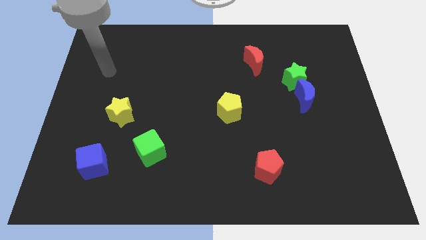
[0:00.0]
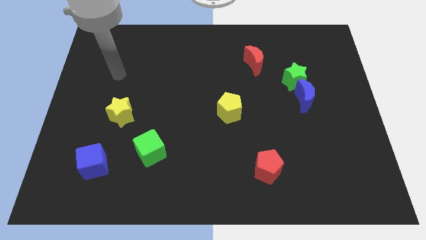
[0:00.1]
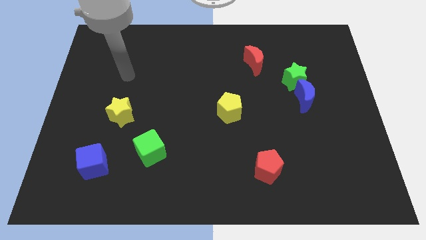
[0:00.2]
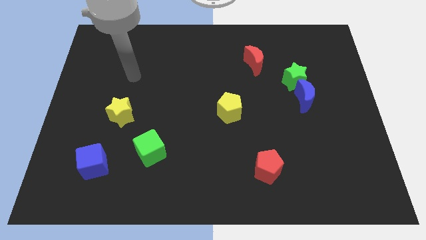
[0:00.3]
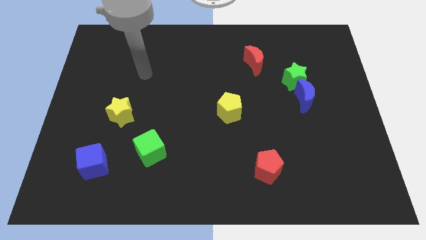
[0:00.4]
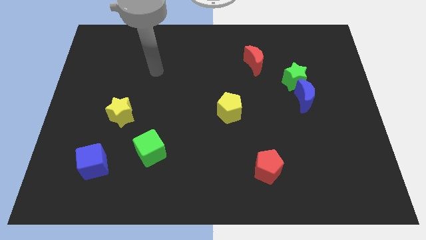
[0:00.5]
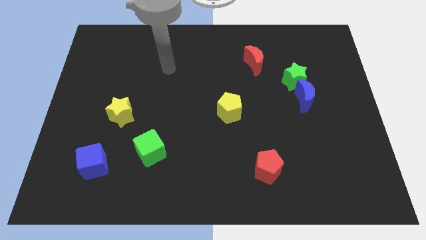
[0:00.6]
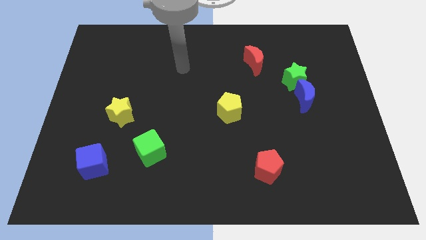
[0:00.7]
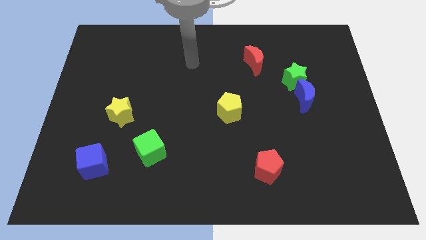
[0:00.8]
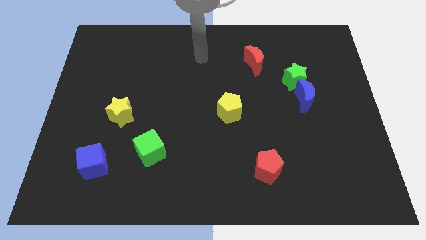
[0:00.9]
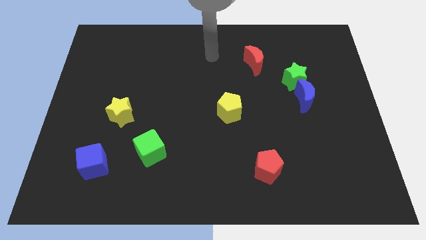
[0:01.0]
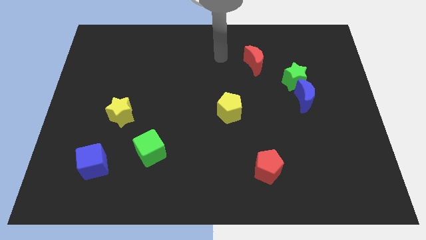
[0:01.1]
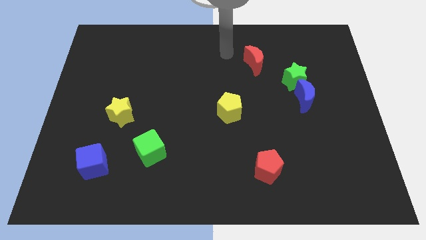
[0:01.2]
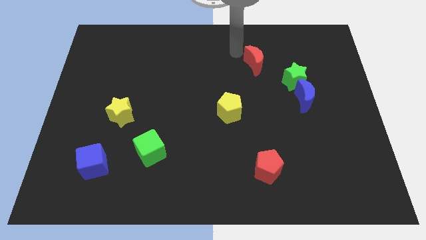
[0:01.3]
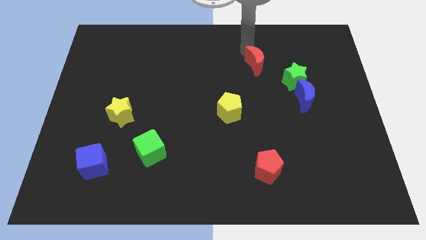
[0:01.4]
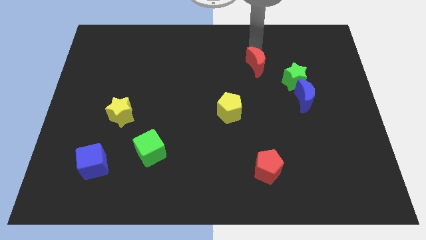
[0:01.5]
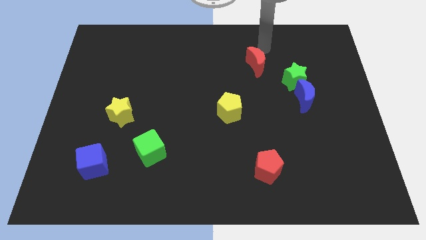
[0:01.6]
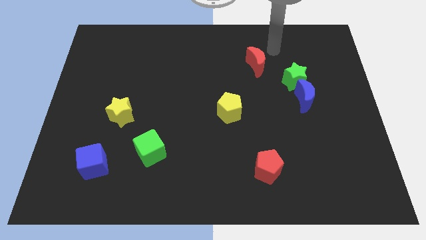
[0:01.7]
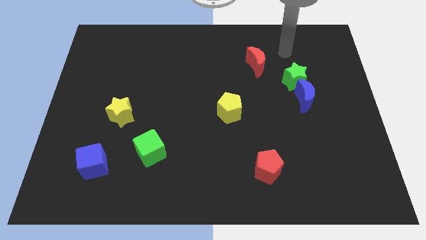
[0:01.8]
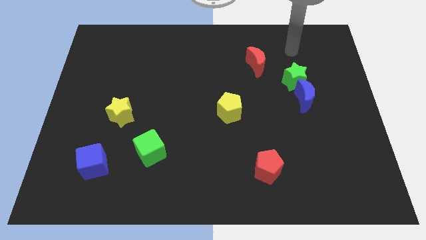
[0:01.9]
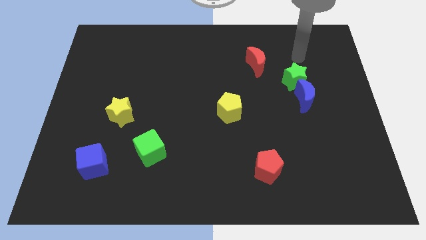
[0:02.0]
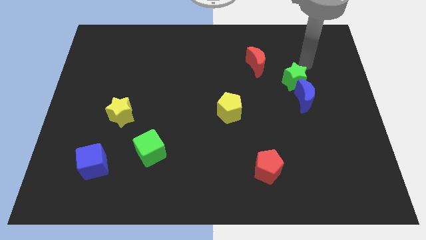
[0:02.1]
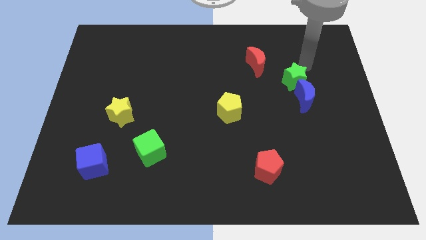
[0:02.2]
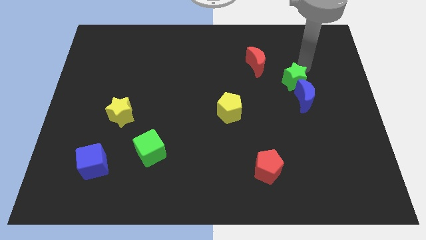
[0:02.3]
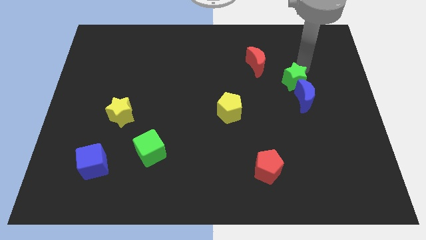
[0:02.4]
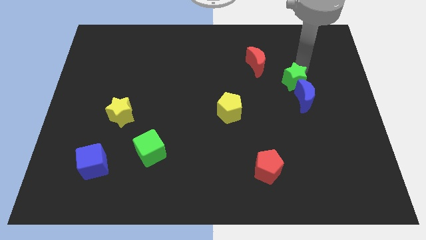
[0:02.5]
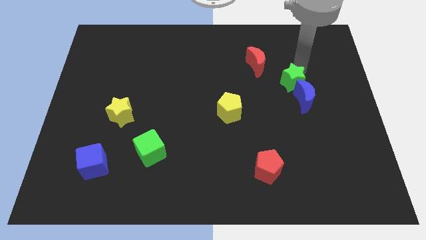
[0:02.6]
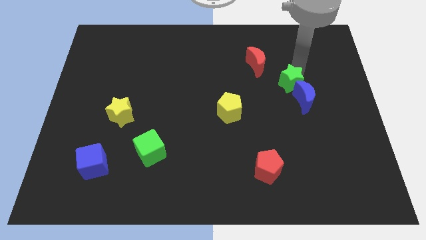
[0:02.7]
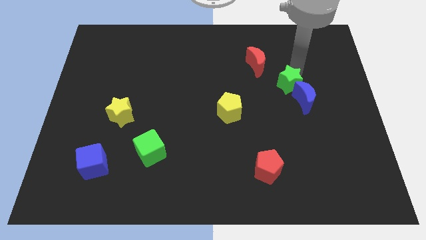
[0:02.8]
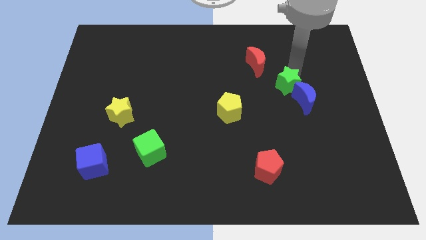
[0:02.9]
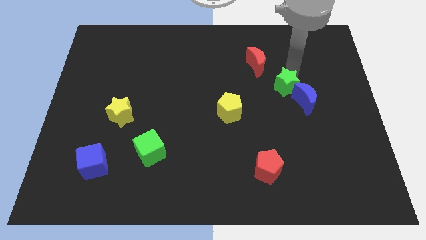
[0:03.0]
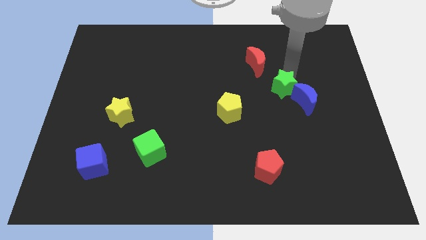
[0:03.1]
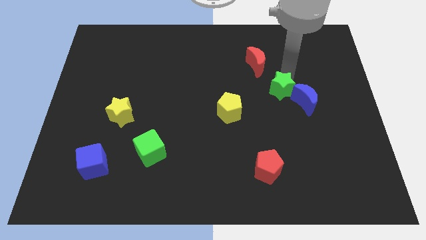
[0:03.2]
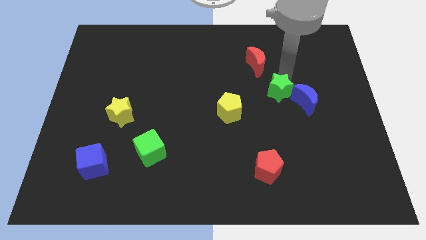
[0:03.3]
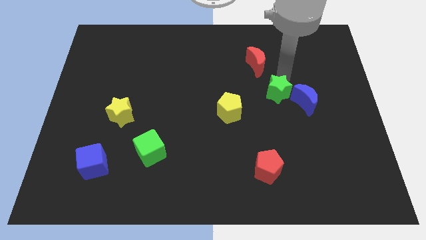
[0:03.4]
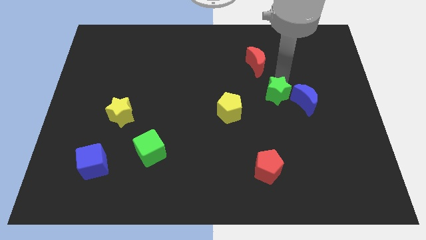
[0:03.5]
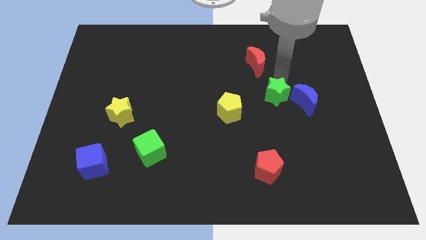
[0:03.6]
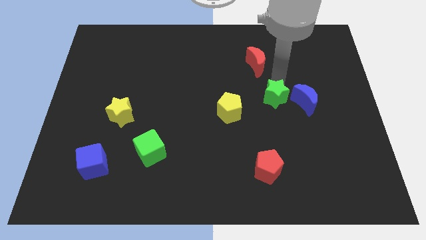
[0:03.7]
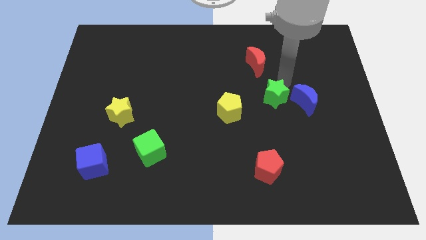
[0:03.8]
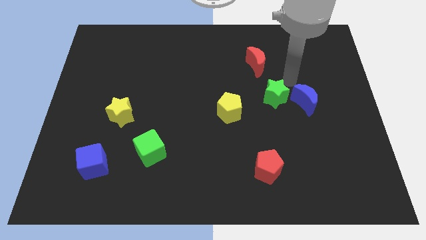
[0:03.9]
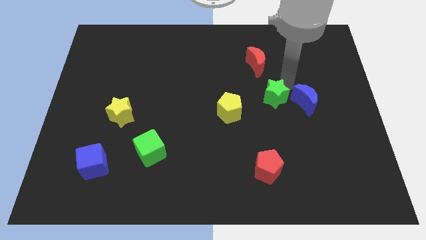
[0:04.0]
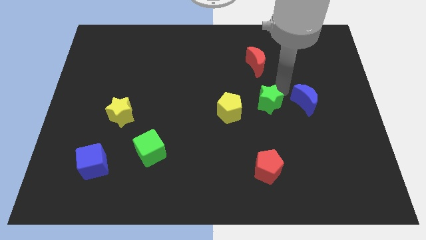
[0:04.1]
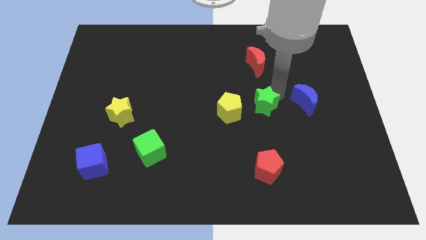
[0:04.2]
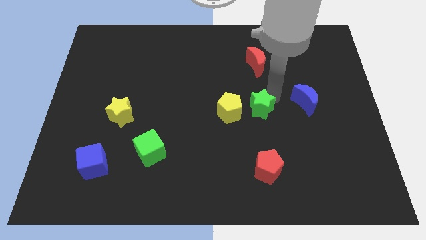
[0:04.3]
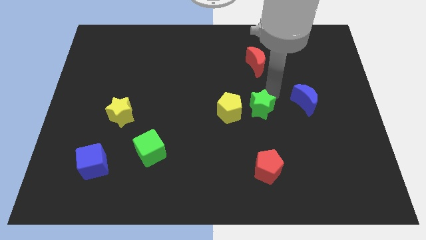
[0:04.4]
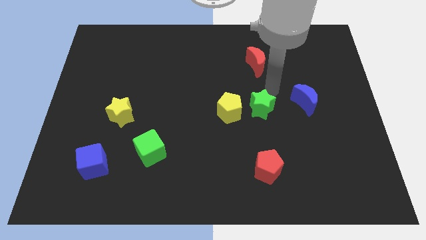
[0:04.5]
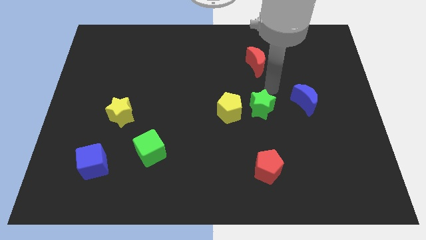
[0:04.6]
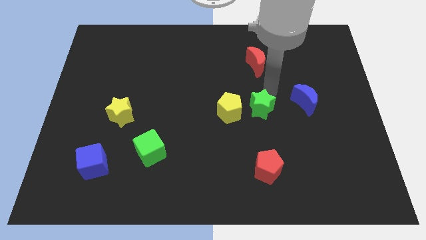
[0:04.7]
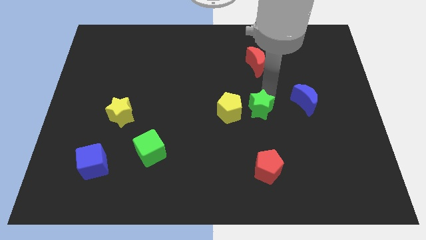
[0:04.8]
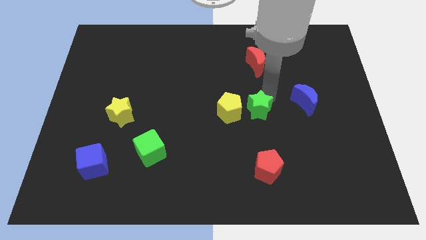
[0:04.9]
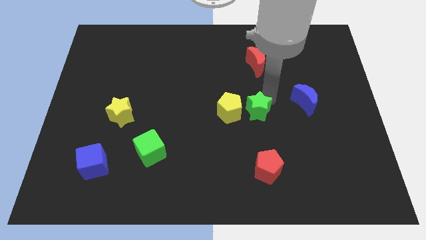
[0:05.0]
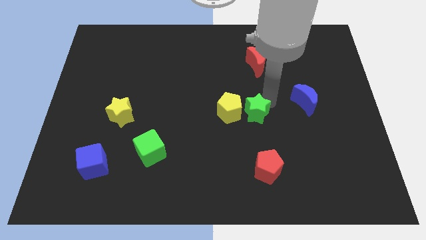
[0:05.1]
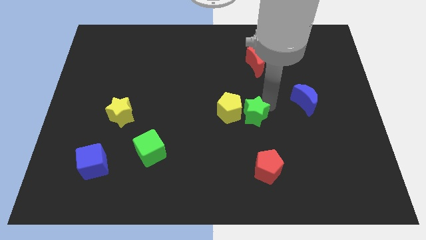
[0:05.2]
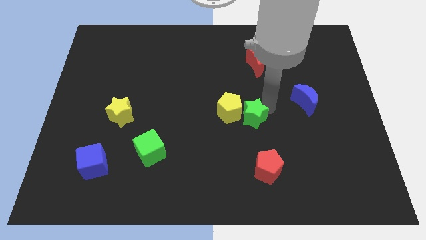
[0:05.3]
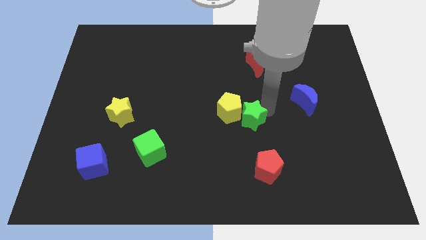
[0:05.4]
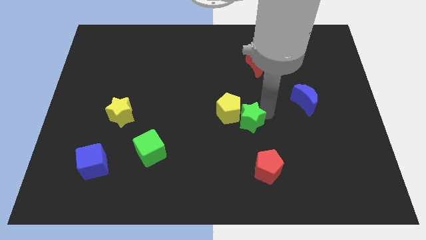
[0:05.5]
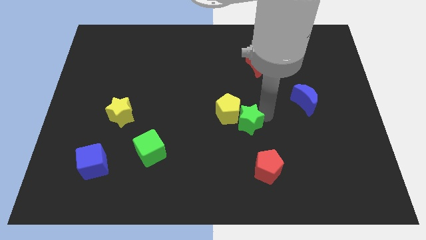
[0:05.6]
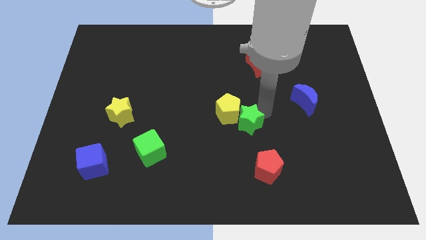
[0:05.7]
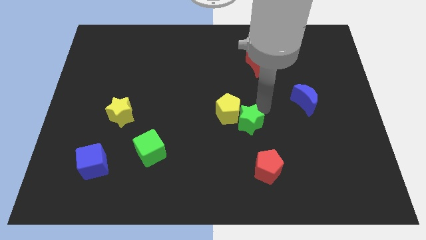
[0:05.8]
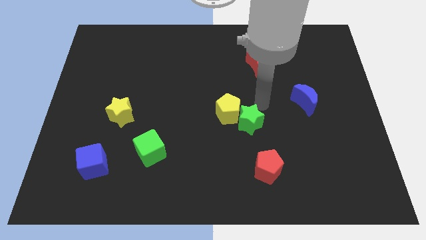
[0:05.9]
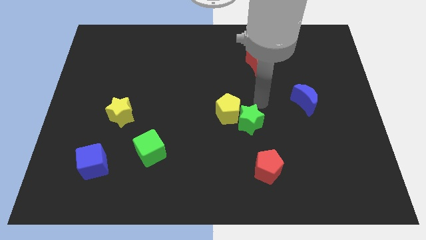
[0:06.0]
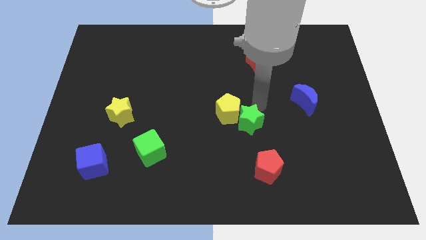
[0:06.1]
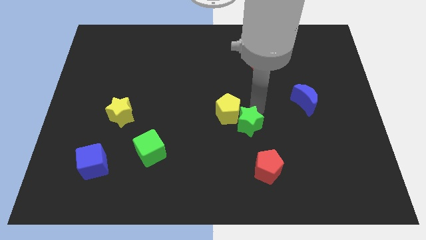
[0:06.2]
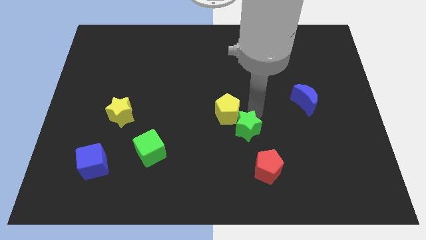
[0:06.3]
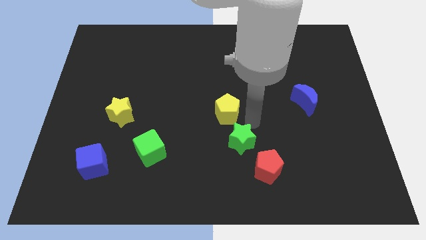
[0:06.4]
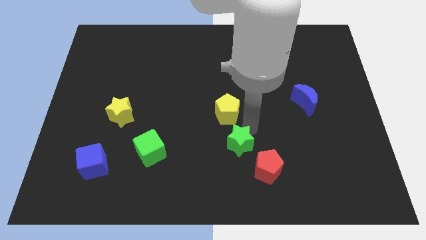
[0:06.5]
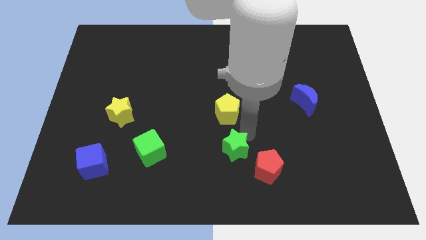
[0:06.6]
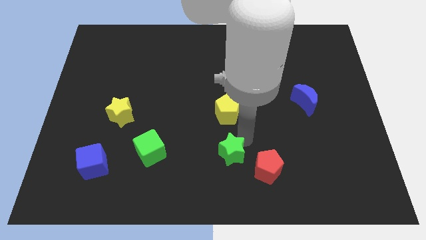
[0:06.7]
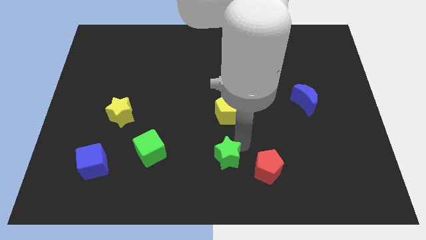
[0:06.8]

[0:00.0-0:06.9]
push the green star to the bottom

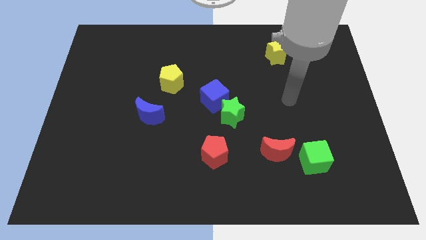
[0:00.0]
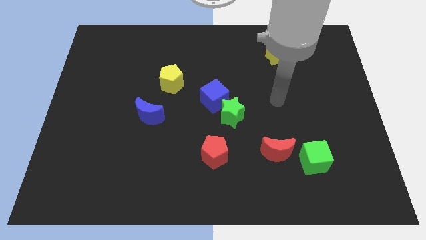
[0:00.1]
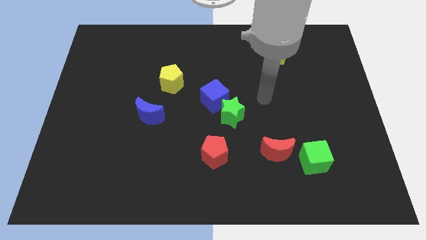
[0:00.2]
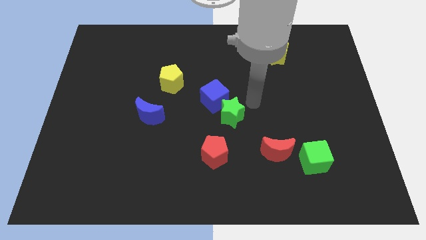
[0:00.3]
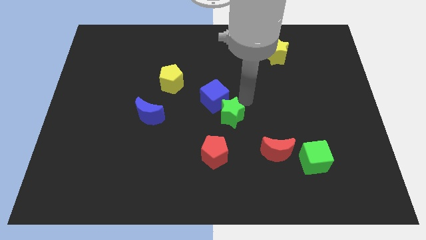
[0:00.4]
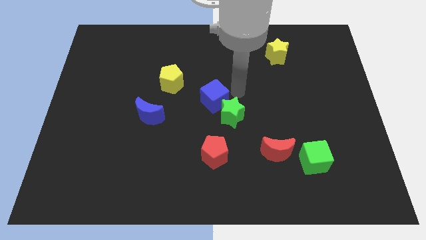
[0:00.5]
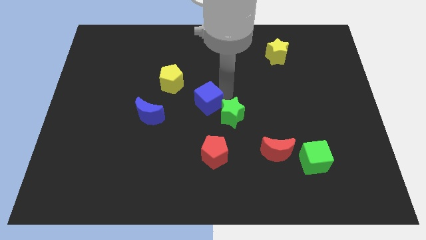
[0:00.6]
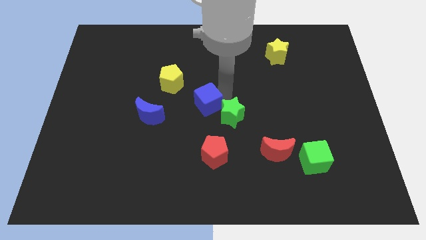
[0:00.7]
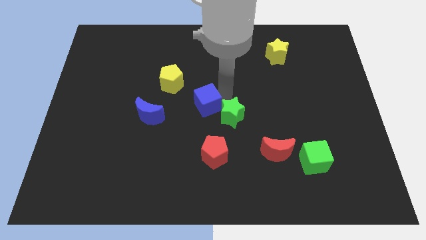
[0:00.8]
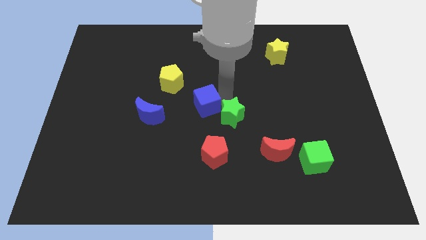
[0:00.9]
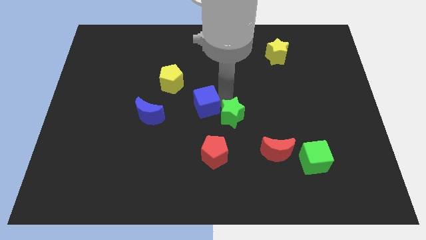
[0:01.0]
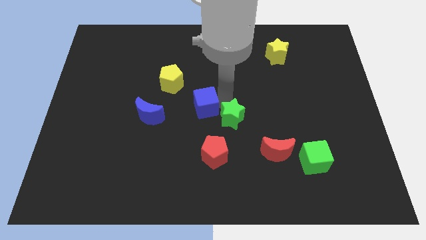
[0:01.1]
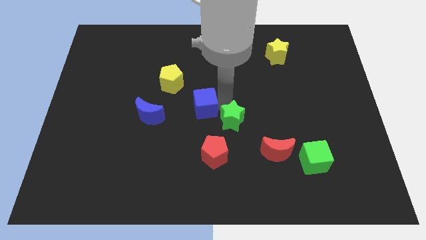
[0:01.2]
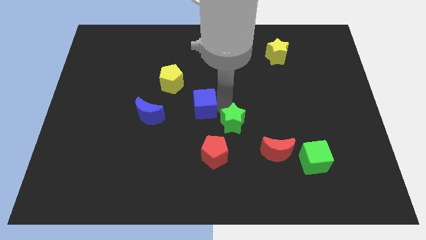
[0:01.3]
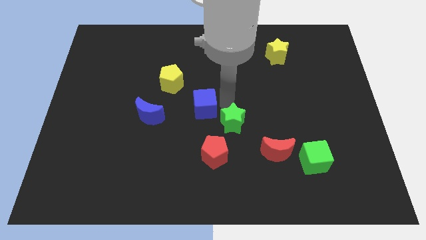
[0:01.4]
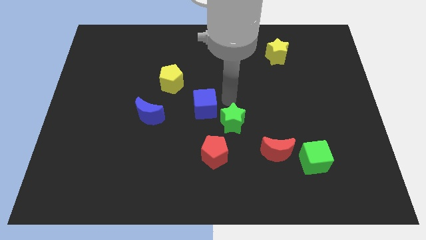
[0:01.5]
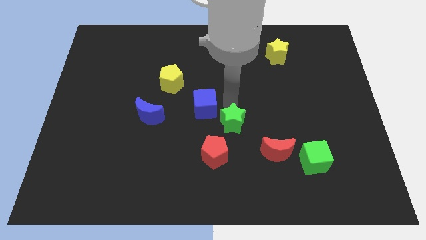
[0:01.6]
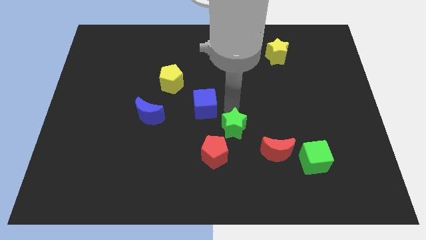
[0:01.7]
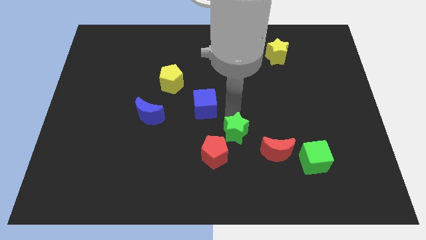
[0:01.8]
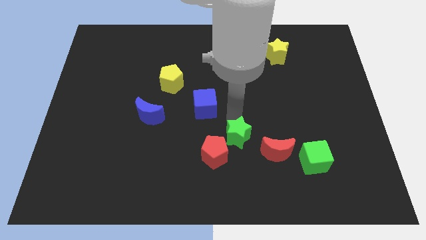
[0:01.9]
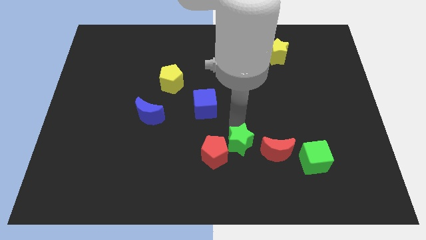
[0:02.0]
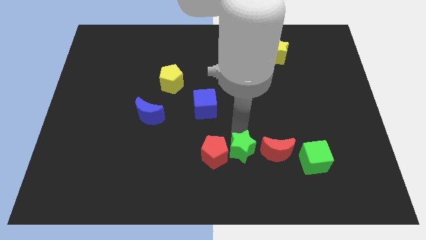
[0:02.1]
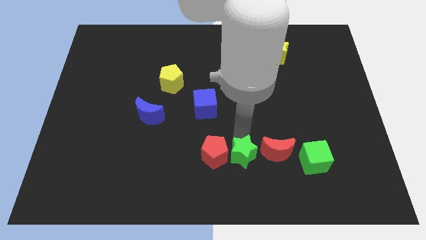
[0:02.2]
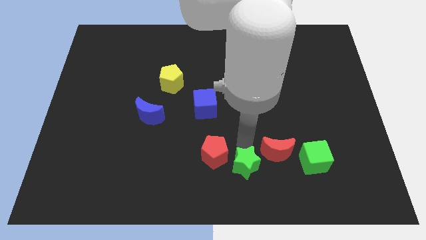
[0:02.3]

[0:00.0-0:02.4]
push the green star to the bottom side
